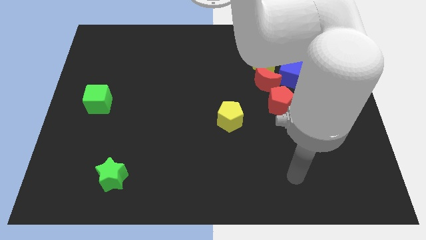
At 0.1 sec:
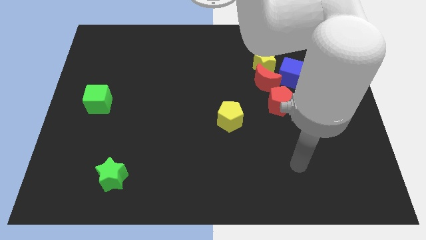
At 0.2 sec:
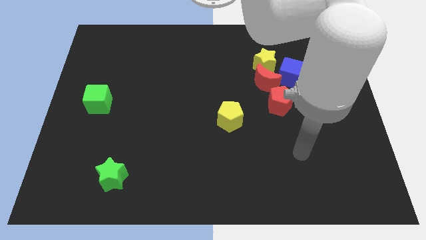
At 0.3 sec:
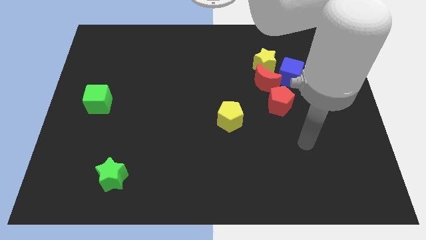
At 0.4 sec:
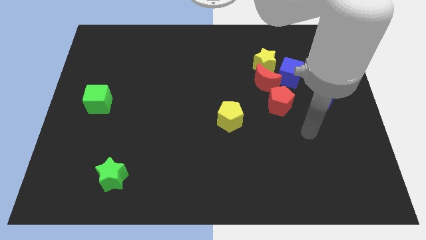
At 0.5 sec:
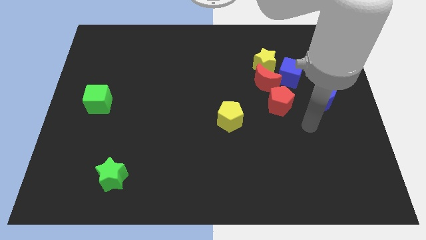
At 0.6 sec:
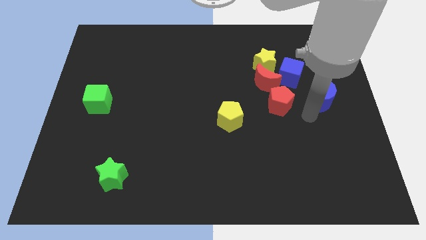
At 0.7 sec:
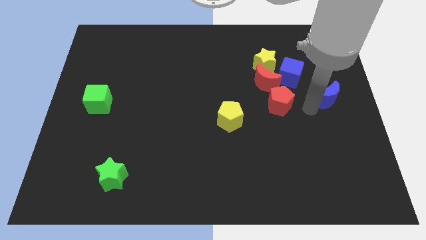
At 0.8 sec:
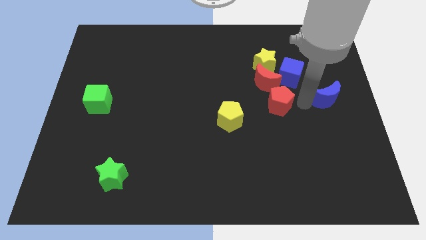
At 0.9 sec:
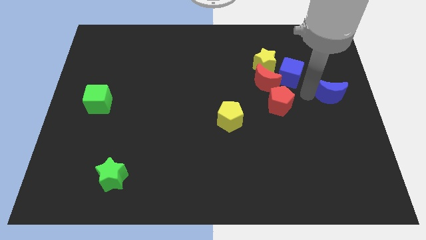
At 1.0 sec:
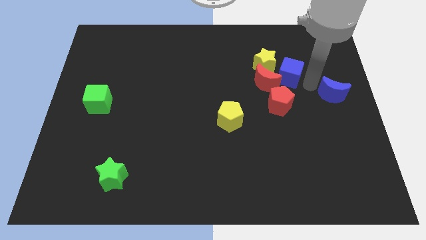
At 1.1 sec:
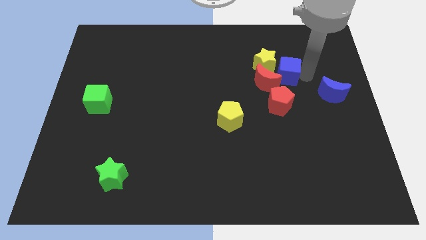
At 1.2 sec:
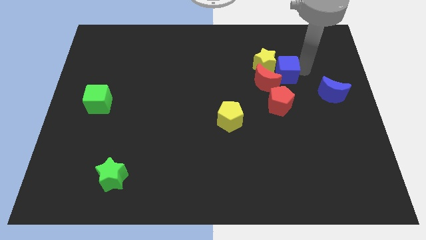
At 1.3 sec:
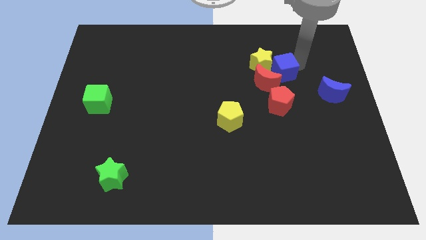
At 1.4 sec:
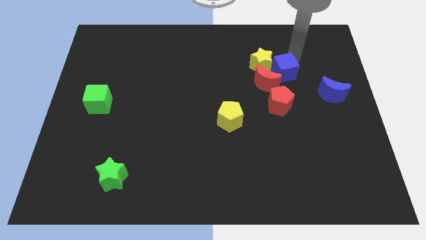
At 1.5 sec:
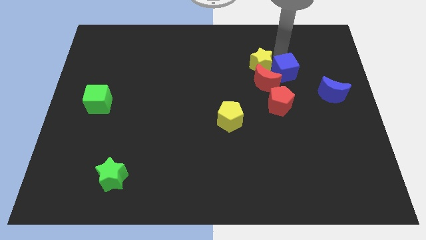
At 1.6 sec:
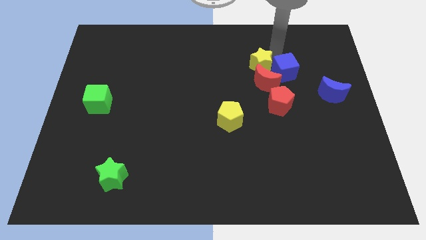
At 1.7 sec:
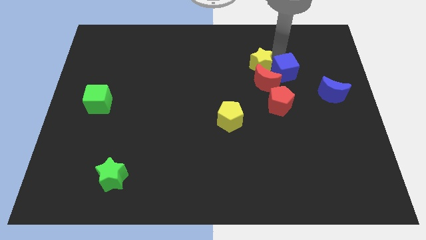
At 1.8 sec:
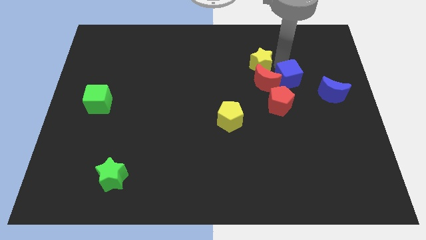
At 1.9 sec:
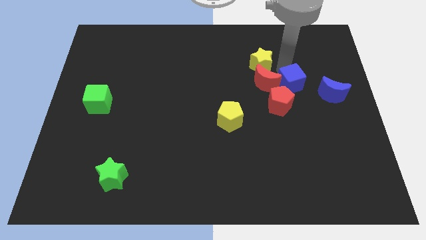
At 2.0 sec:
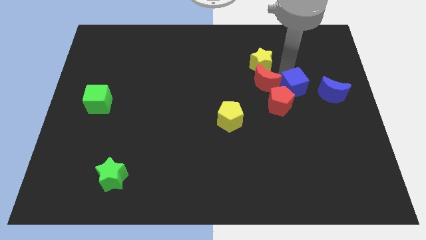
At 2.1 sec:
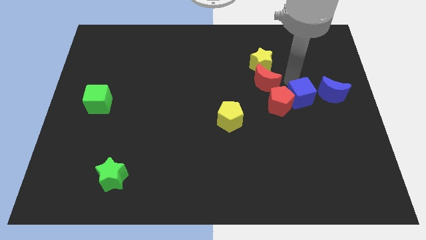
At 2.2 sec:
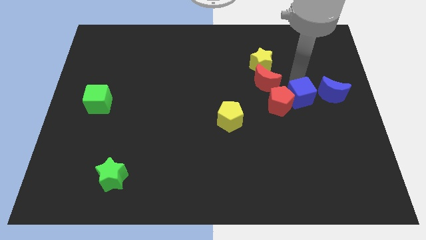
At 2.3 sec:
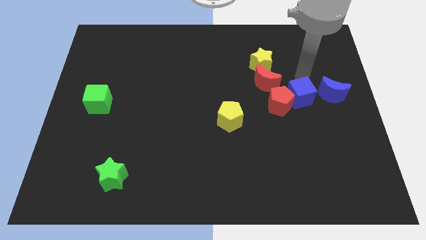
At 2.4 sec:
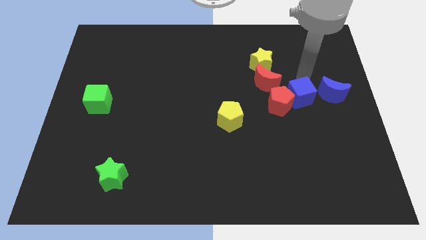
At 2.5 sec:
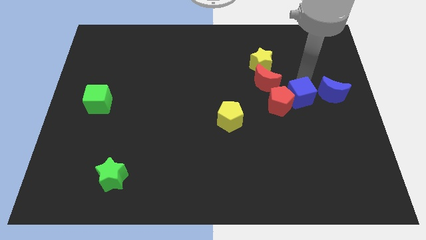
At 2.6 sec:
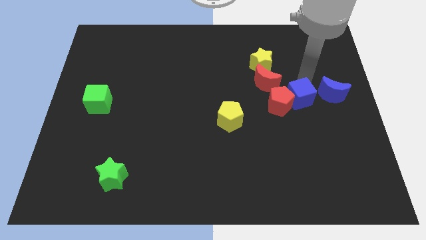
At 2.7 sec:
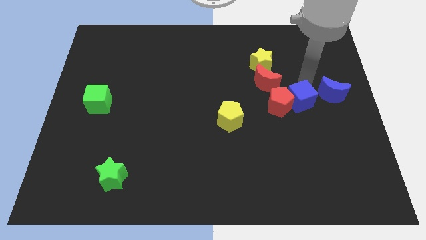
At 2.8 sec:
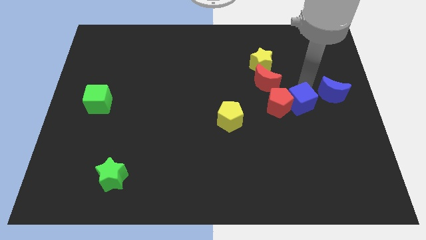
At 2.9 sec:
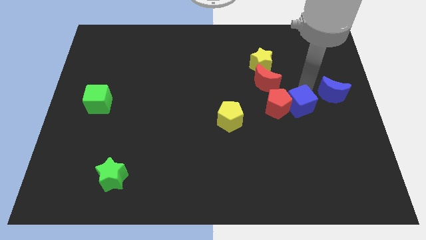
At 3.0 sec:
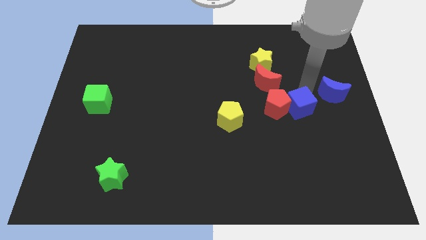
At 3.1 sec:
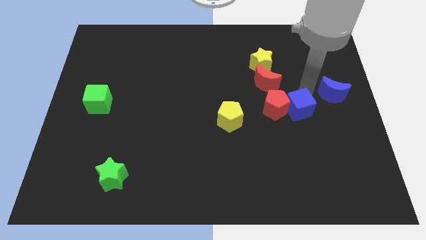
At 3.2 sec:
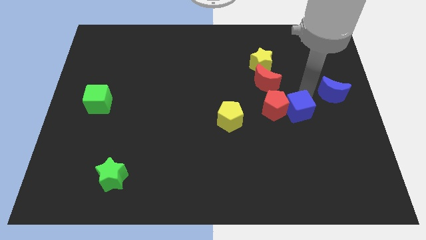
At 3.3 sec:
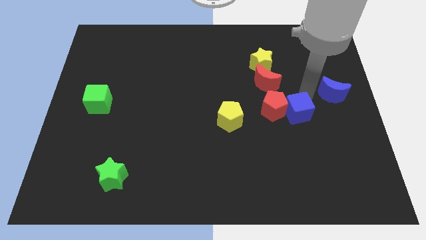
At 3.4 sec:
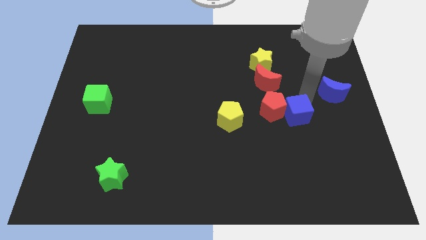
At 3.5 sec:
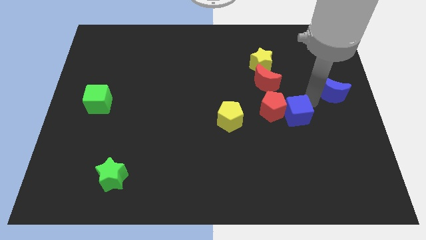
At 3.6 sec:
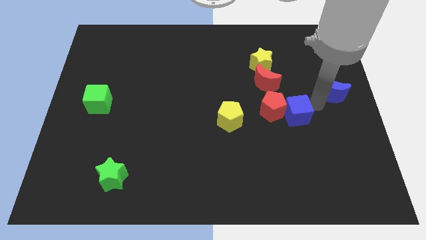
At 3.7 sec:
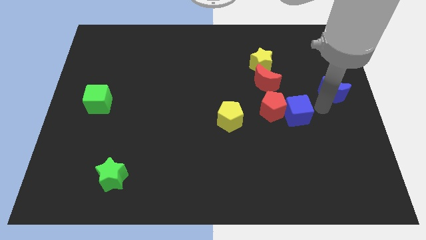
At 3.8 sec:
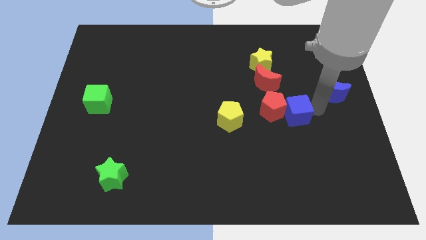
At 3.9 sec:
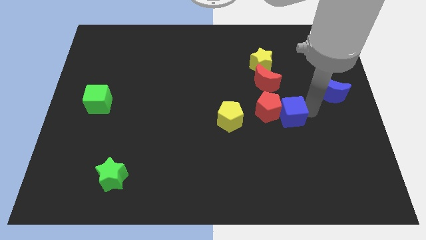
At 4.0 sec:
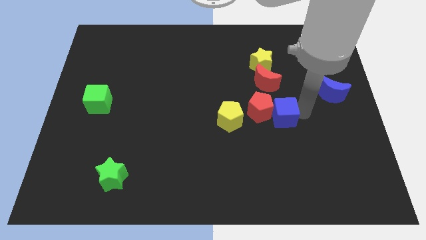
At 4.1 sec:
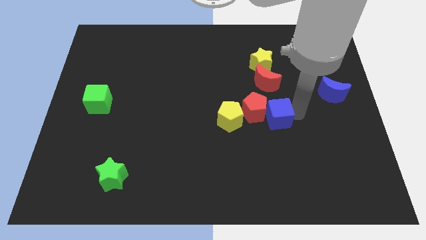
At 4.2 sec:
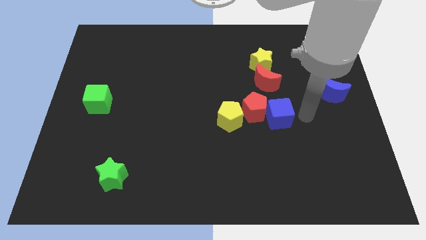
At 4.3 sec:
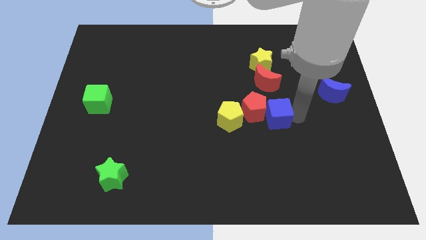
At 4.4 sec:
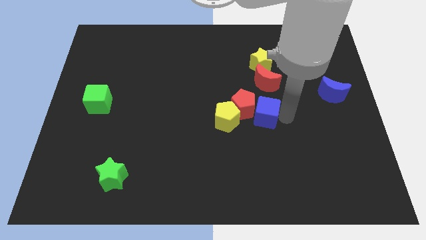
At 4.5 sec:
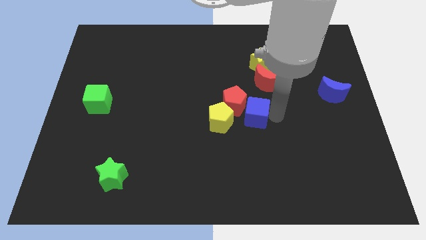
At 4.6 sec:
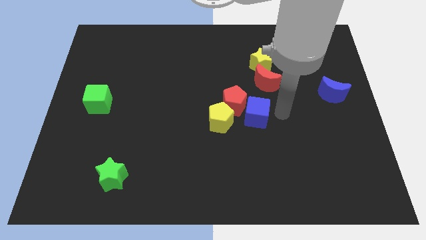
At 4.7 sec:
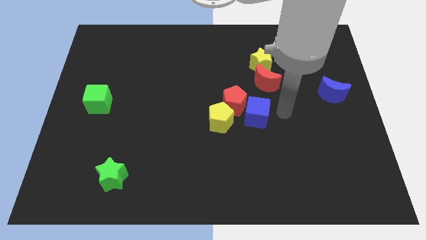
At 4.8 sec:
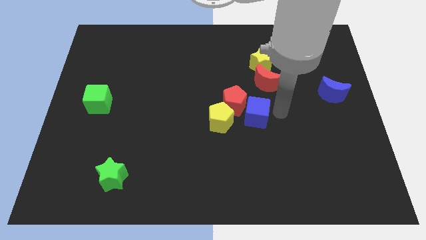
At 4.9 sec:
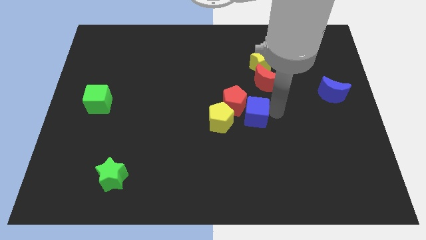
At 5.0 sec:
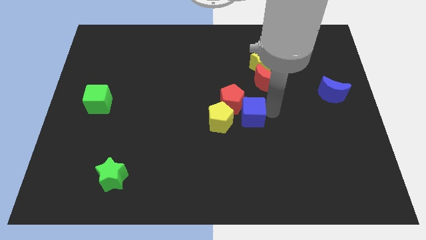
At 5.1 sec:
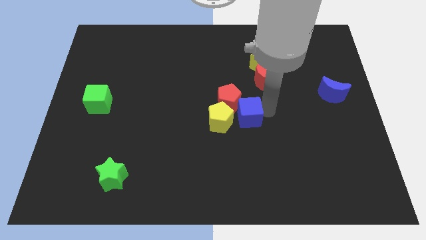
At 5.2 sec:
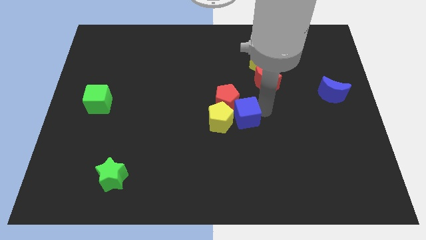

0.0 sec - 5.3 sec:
move the blue cube close to the yellow pentagon

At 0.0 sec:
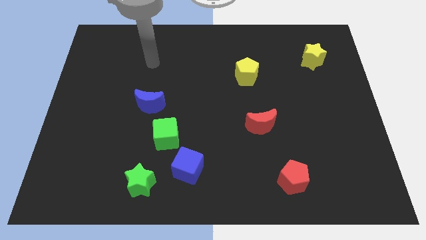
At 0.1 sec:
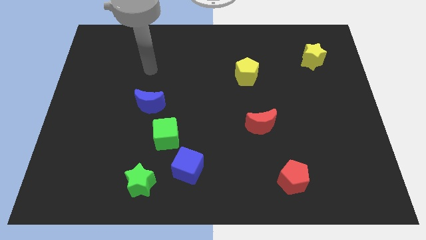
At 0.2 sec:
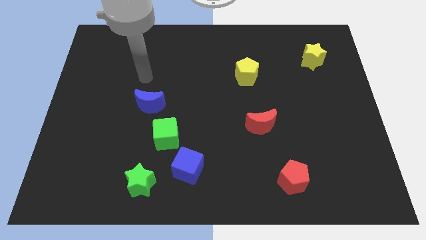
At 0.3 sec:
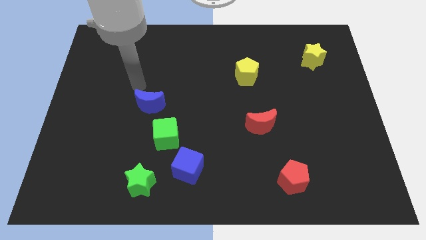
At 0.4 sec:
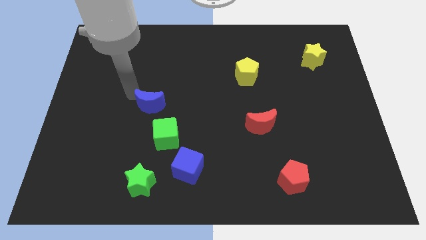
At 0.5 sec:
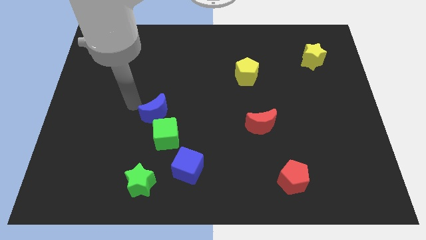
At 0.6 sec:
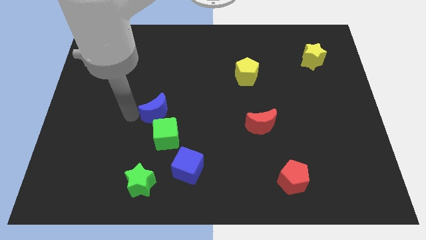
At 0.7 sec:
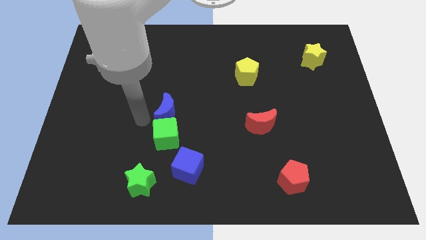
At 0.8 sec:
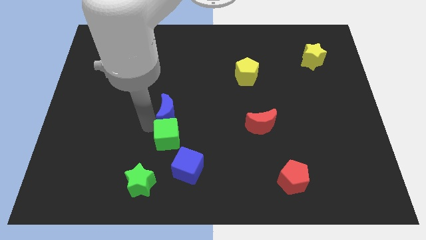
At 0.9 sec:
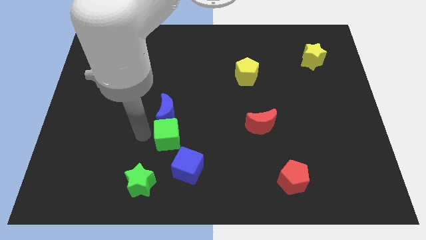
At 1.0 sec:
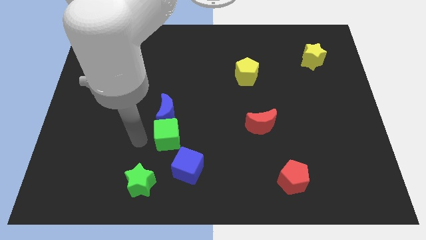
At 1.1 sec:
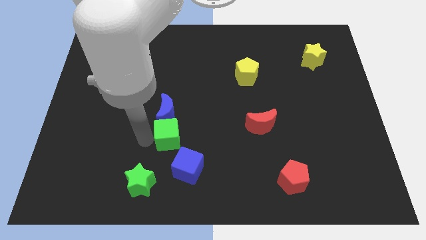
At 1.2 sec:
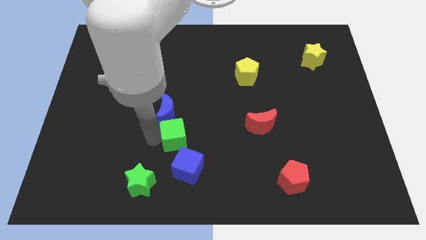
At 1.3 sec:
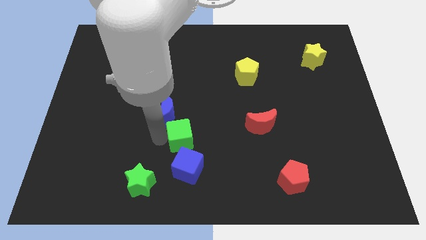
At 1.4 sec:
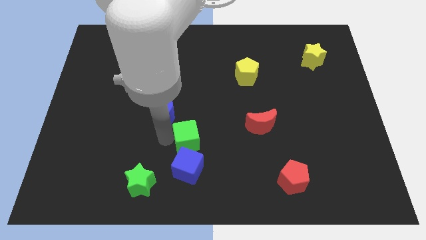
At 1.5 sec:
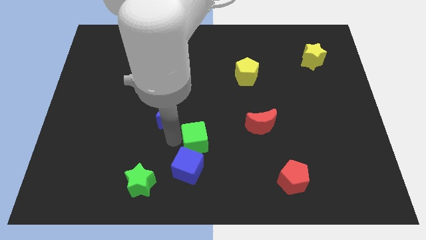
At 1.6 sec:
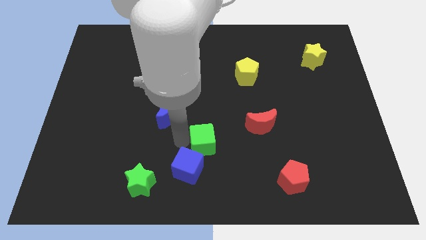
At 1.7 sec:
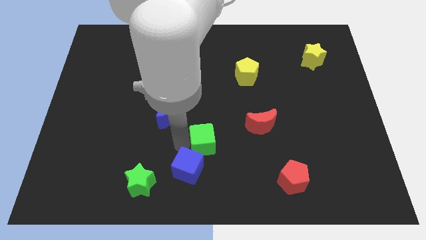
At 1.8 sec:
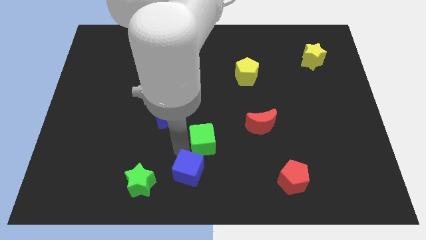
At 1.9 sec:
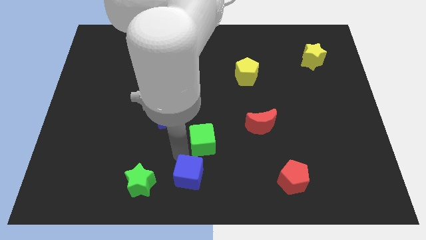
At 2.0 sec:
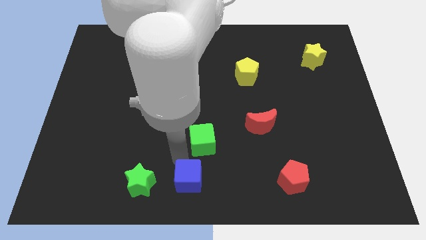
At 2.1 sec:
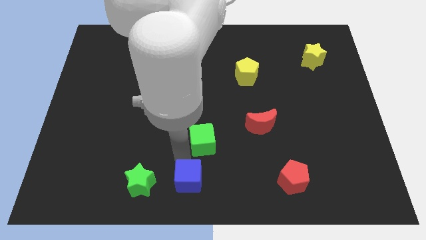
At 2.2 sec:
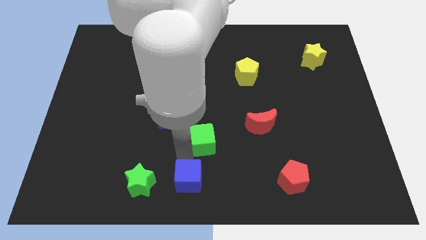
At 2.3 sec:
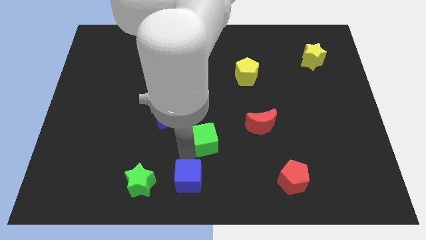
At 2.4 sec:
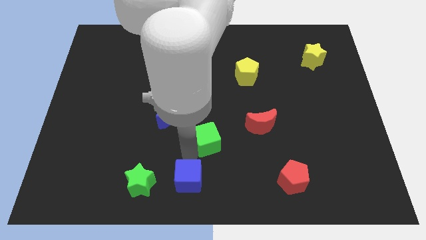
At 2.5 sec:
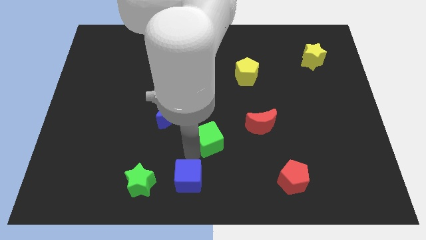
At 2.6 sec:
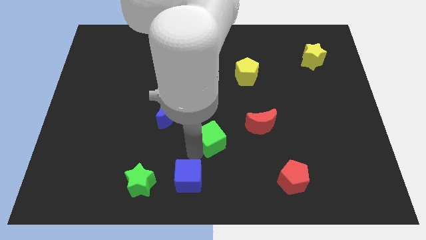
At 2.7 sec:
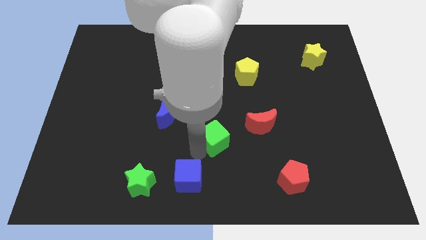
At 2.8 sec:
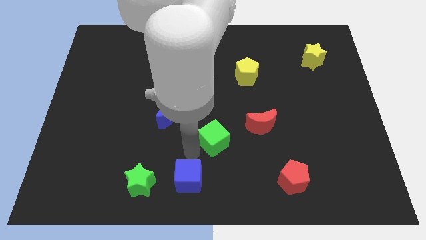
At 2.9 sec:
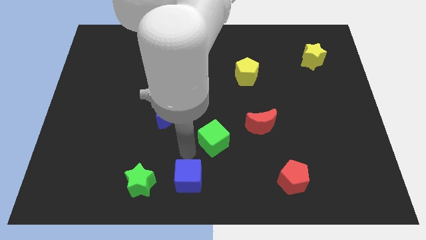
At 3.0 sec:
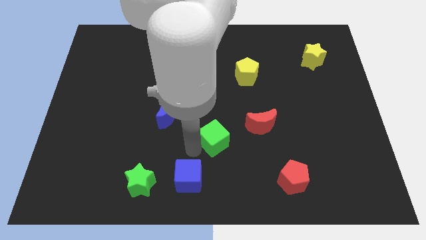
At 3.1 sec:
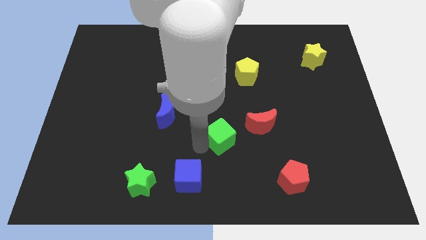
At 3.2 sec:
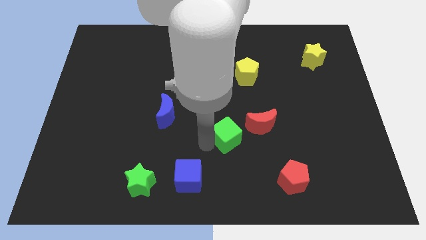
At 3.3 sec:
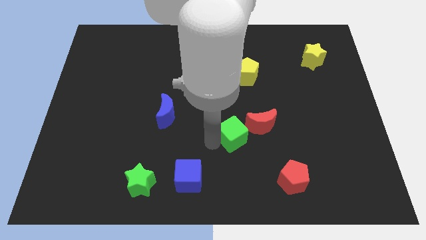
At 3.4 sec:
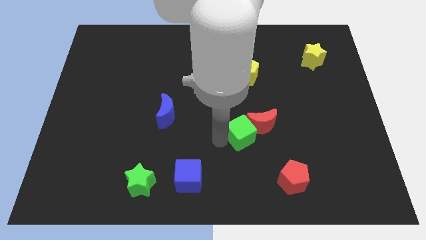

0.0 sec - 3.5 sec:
move the green cube next to the red moon
